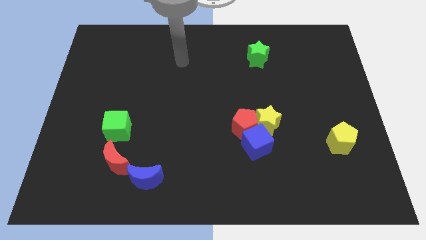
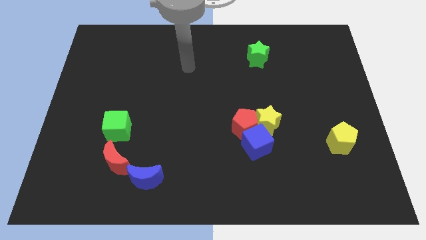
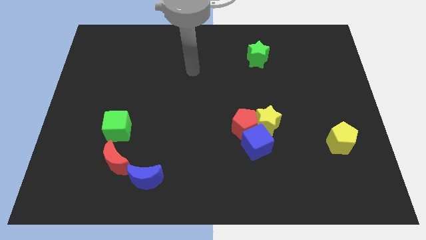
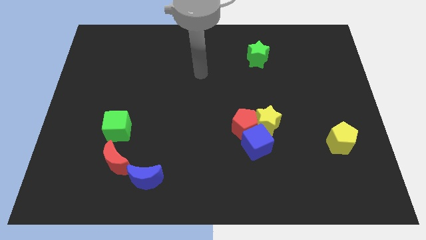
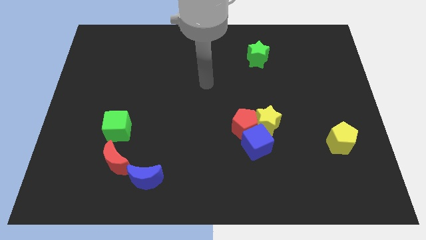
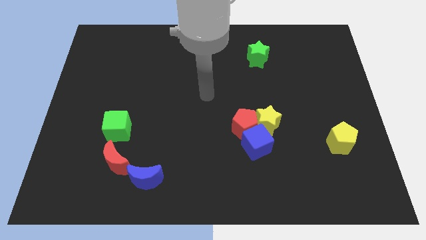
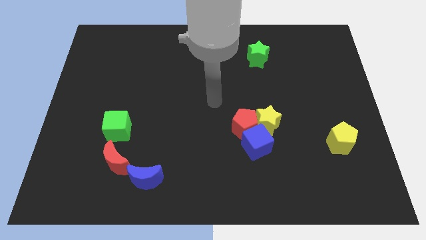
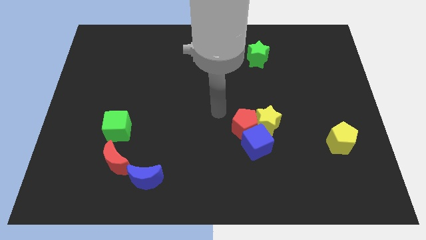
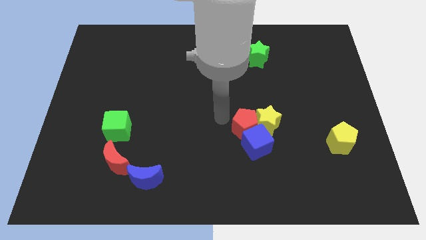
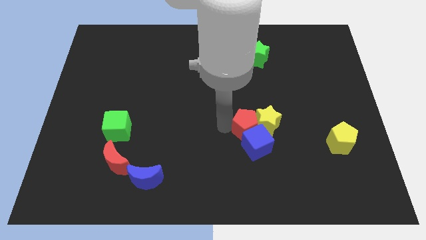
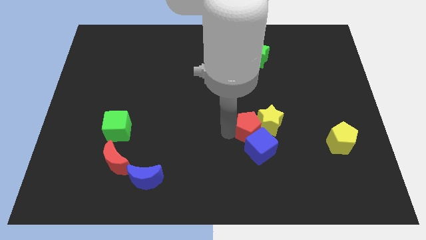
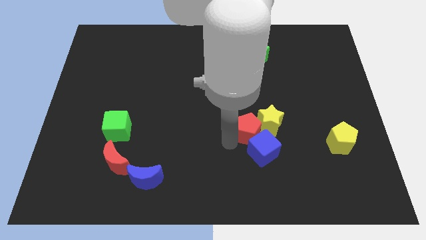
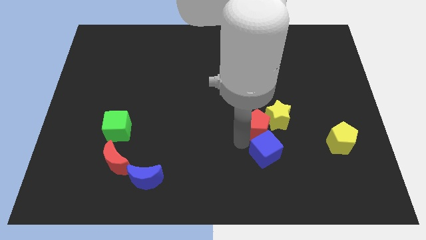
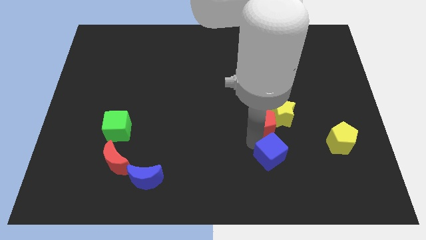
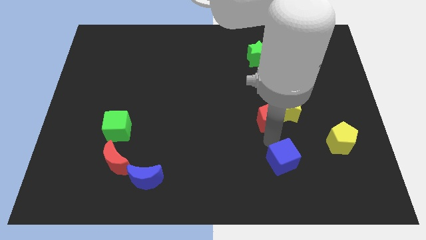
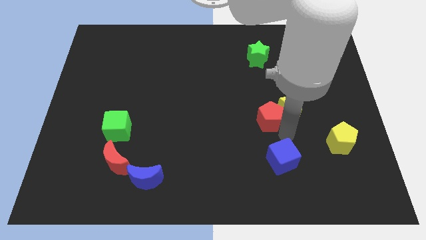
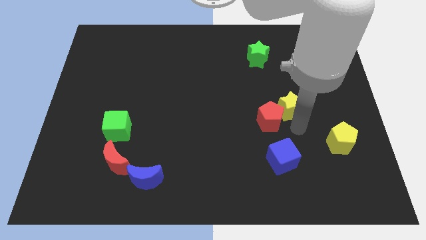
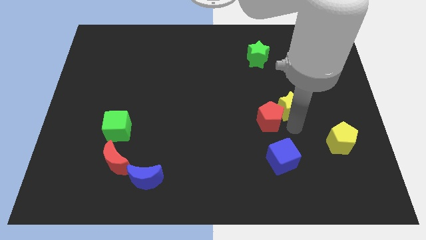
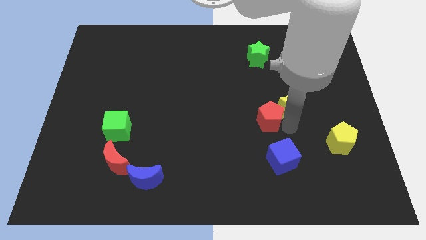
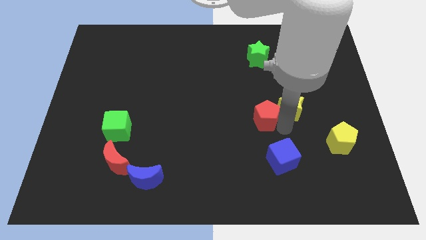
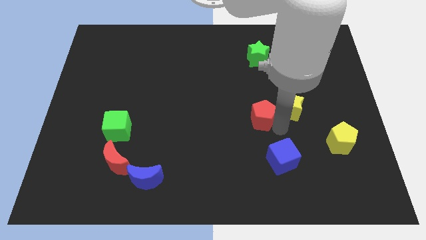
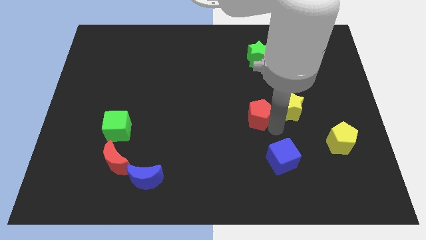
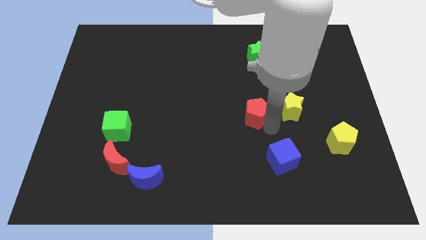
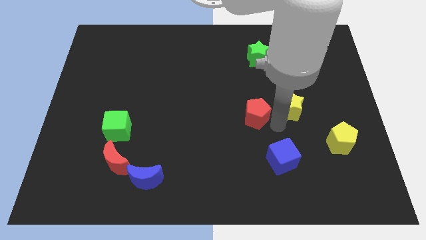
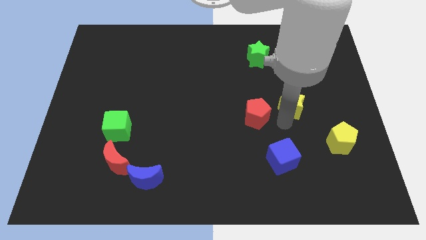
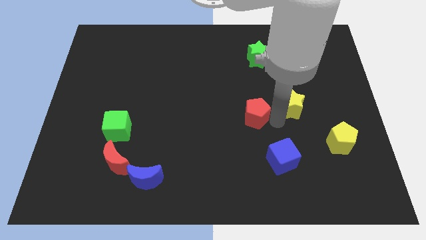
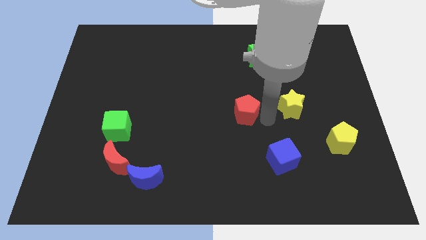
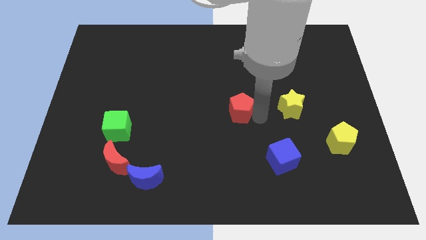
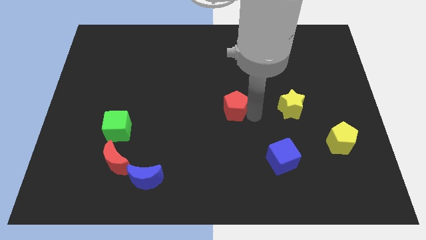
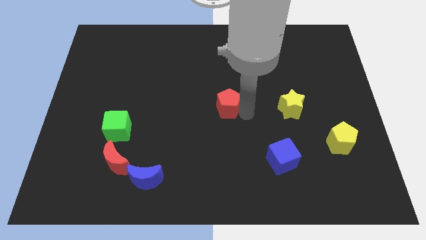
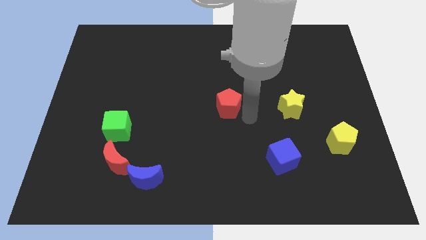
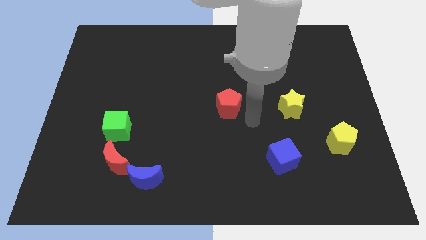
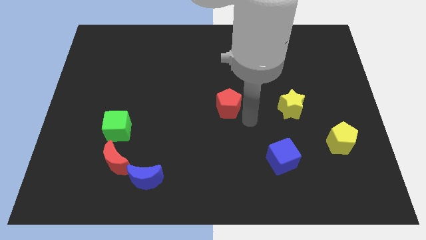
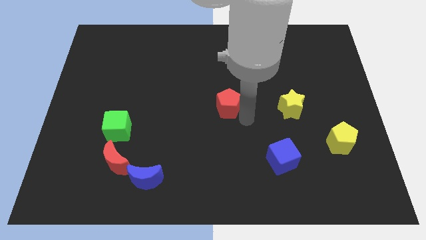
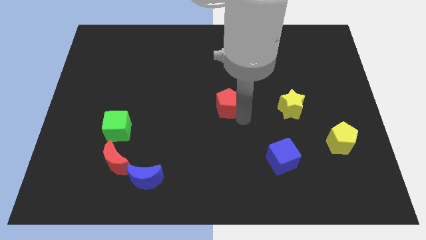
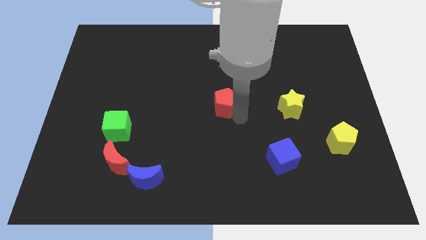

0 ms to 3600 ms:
push the red pentagon a bit up and left

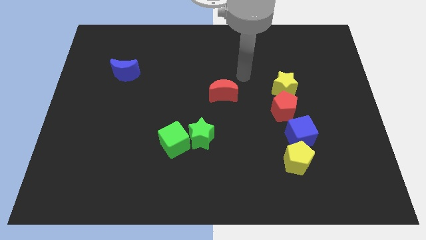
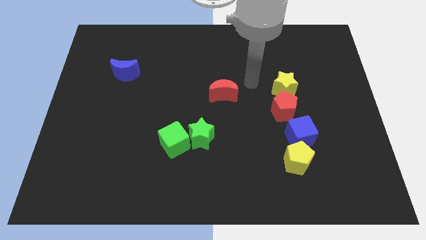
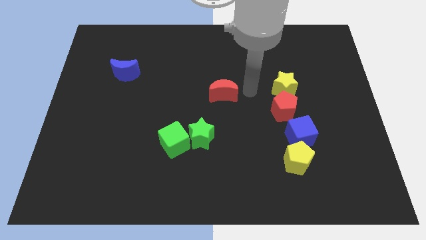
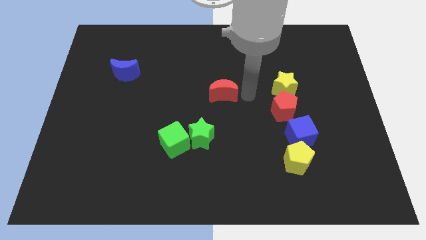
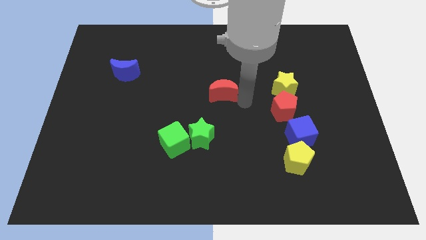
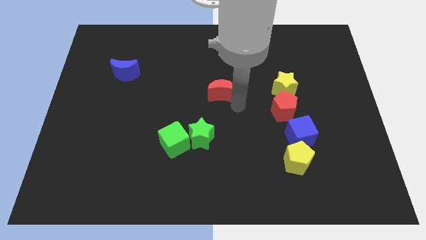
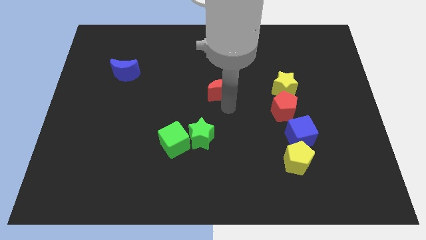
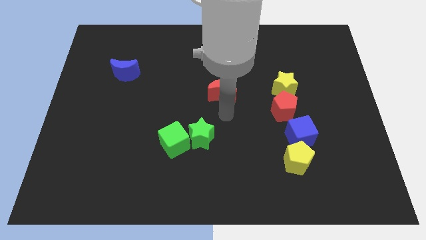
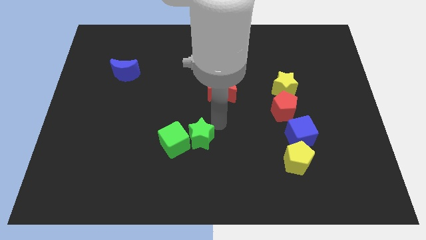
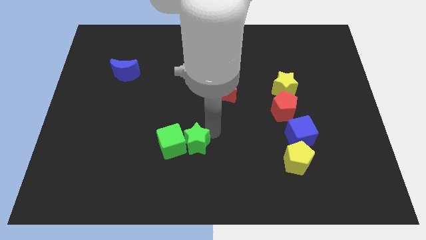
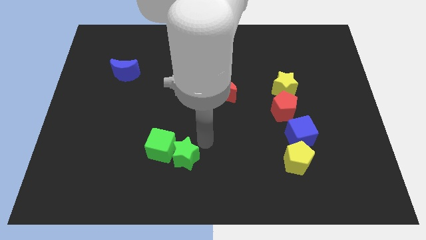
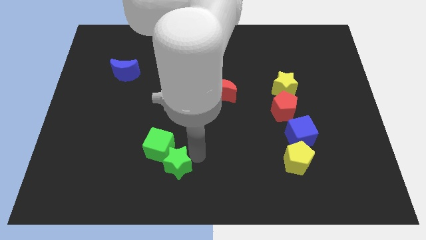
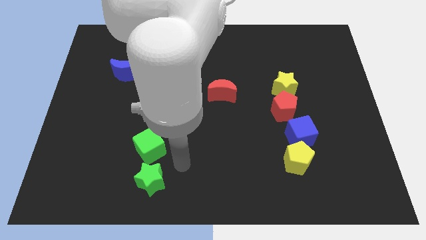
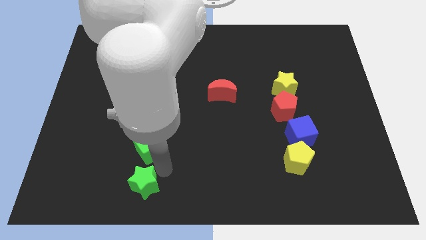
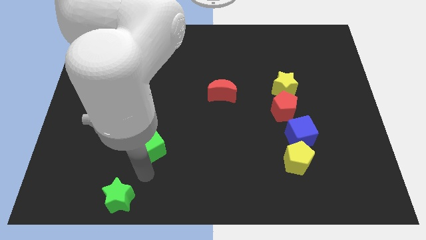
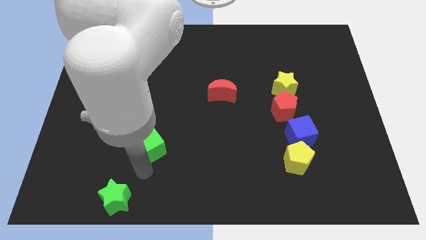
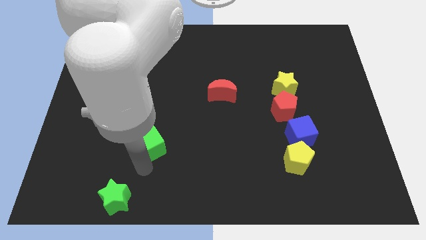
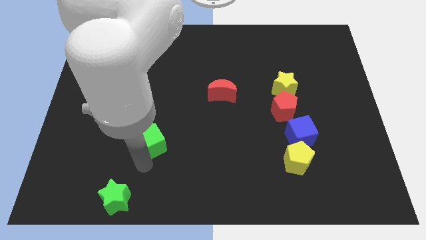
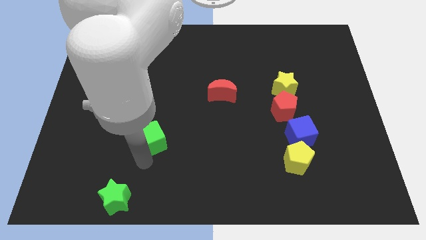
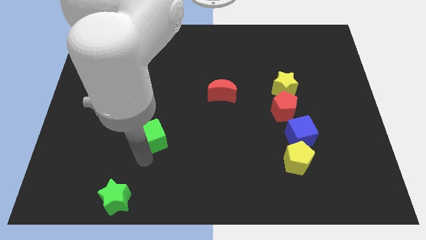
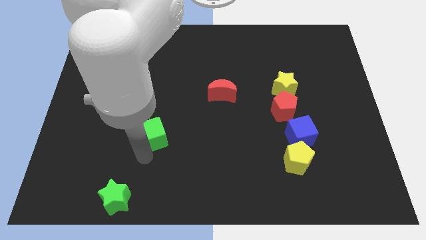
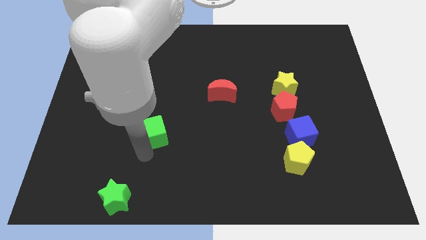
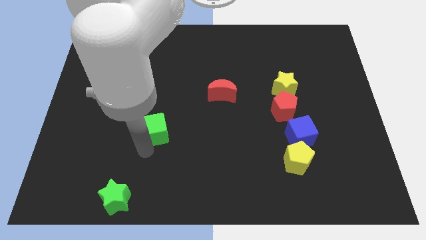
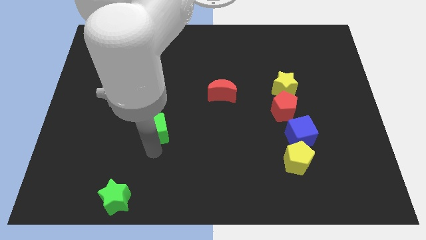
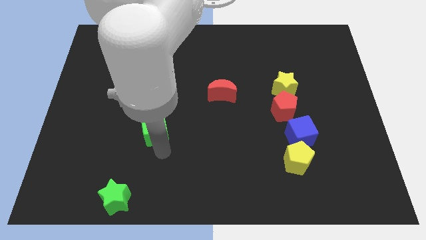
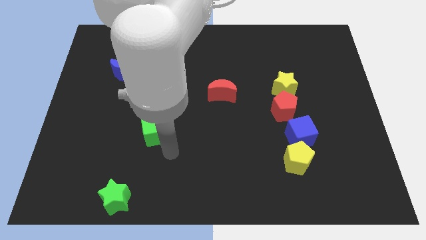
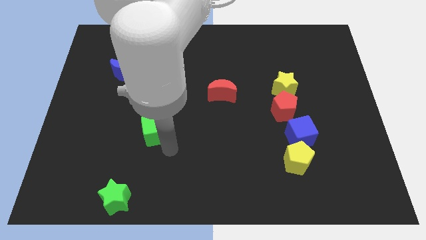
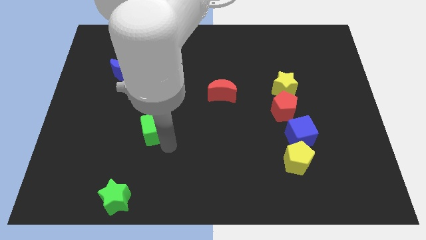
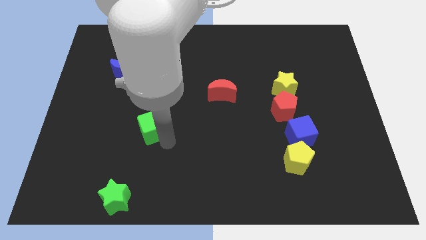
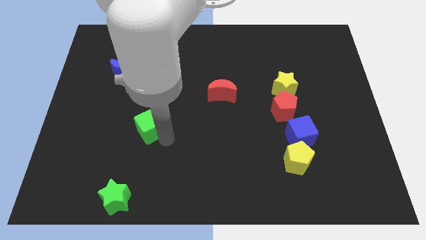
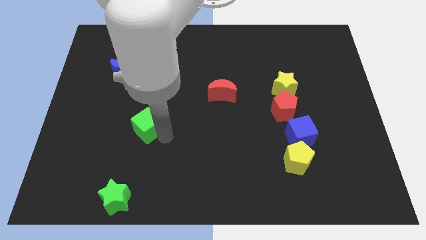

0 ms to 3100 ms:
move the green cube a little diagonally upwards and left

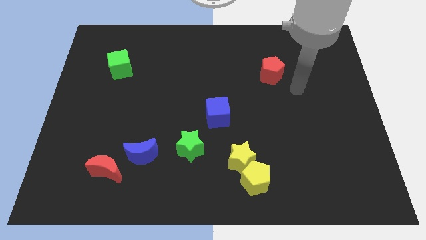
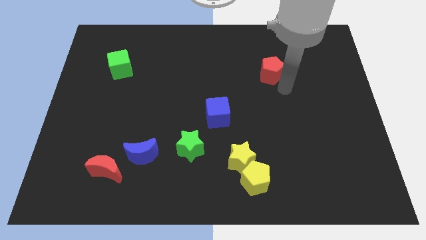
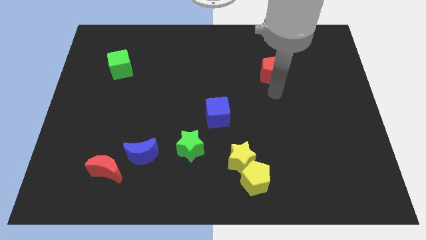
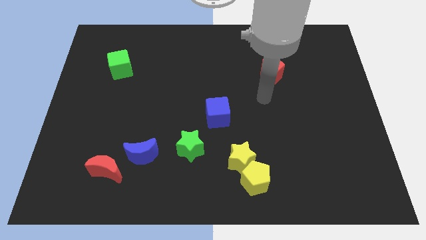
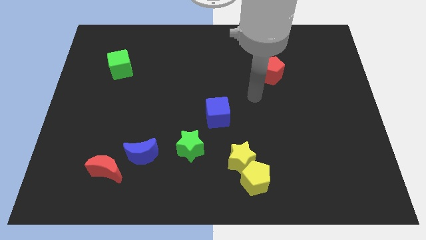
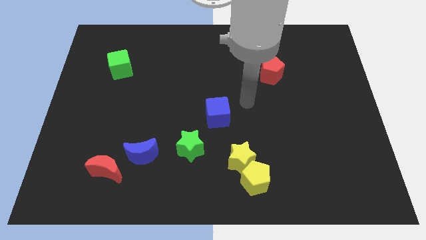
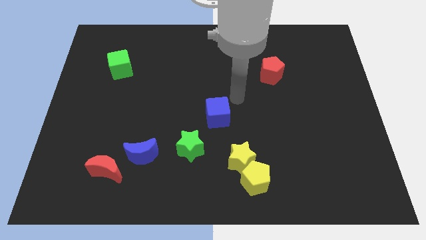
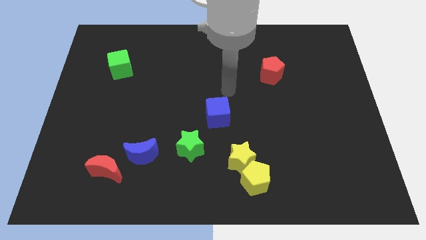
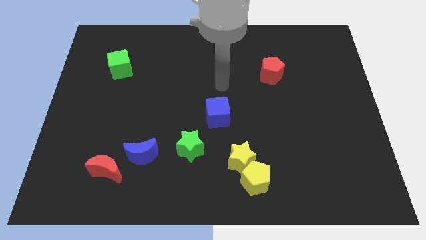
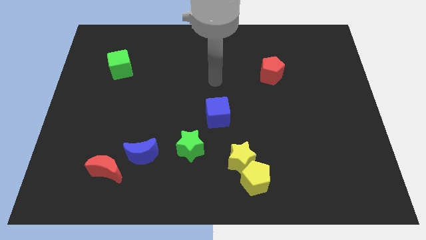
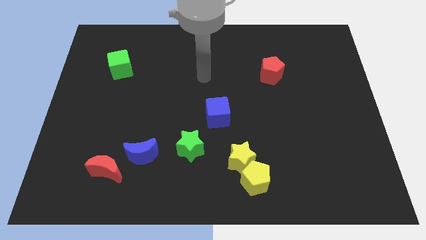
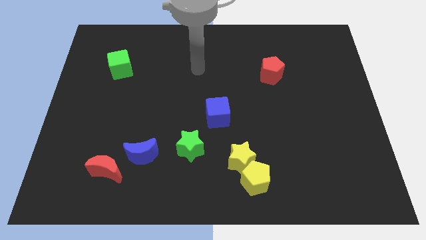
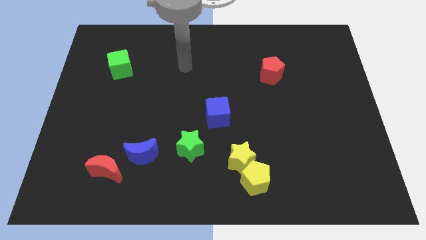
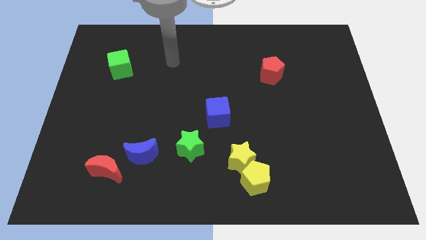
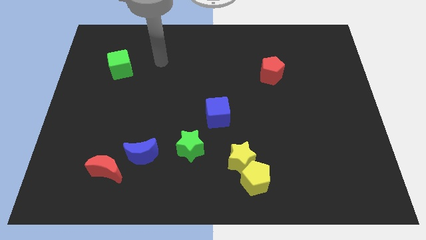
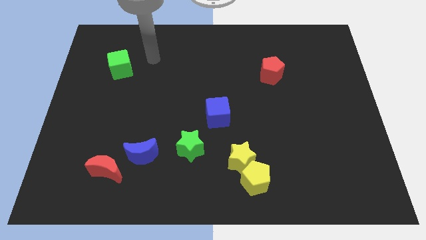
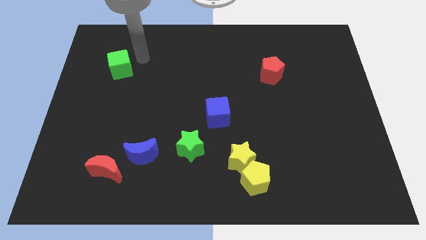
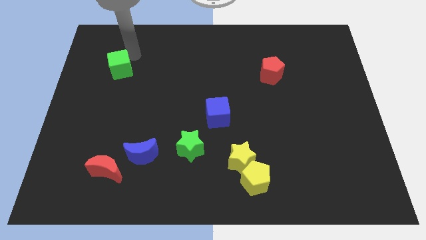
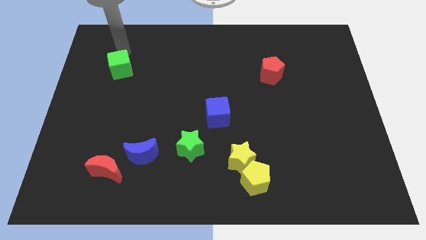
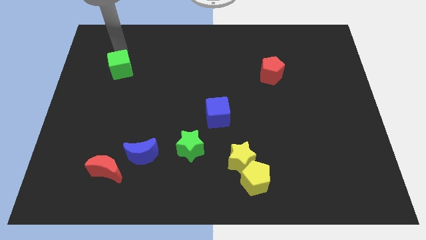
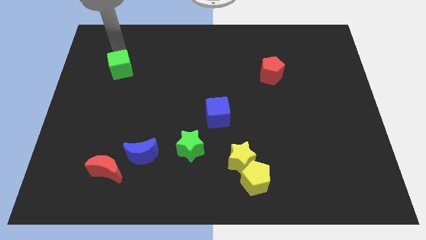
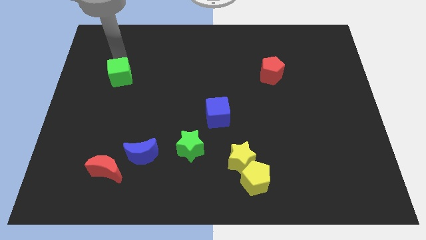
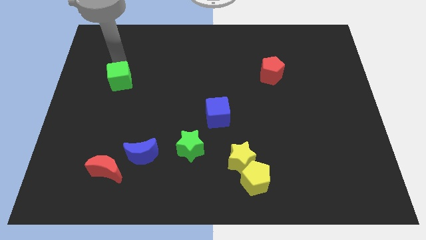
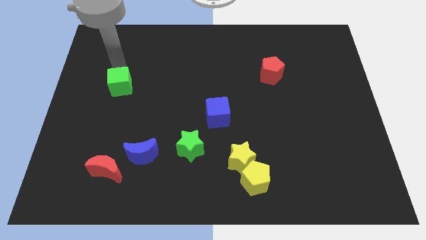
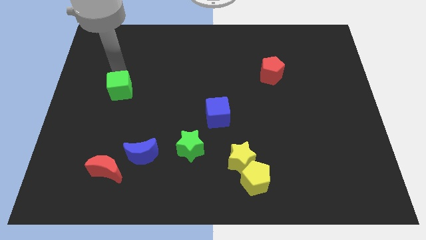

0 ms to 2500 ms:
push the green cube down slightly
